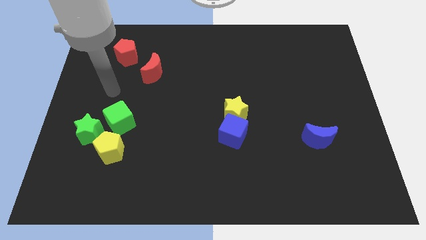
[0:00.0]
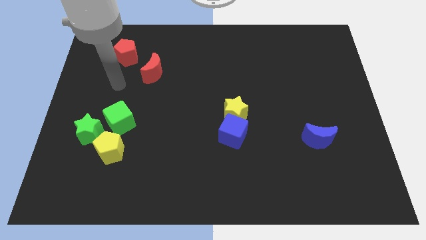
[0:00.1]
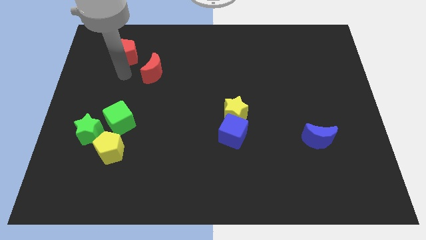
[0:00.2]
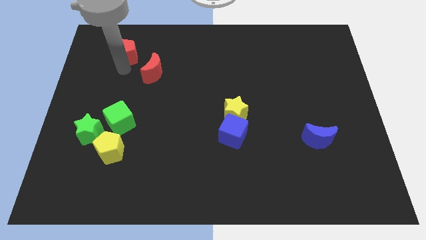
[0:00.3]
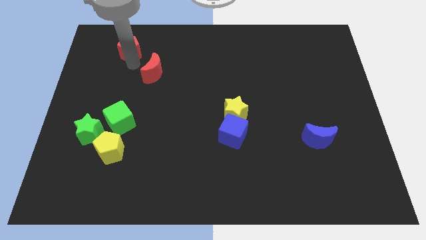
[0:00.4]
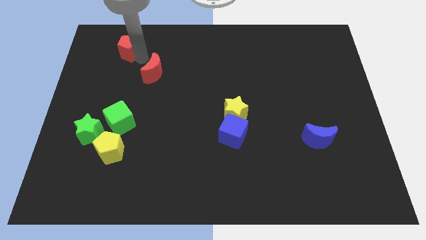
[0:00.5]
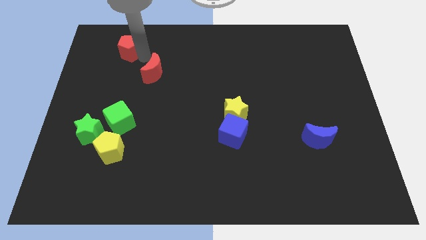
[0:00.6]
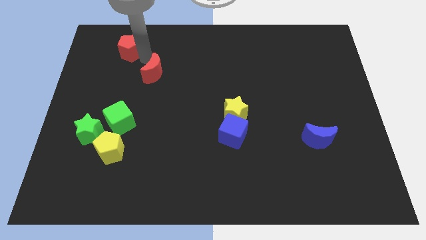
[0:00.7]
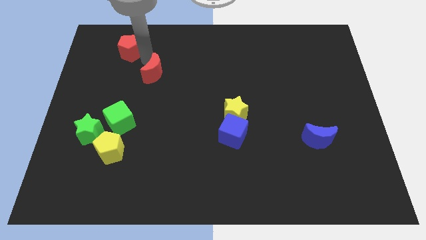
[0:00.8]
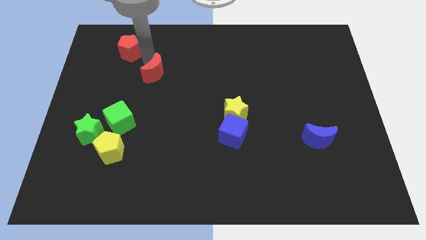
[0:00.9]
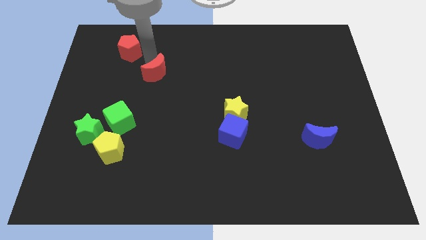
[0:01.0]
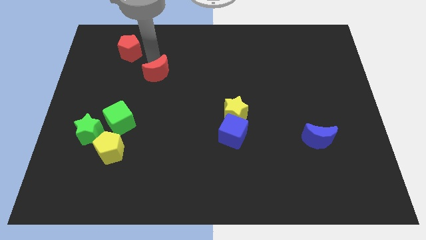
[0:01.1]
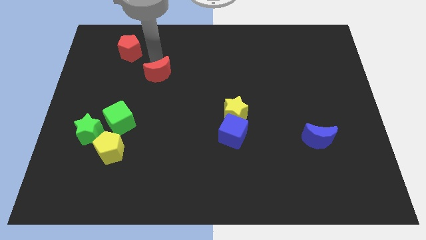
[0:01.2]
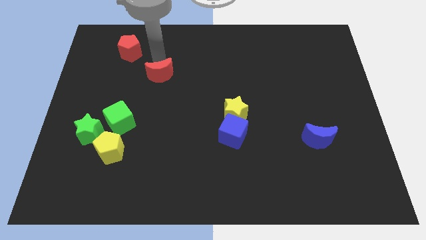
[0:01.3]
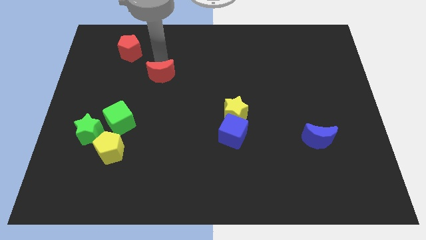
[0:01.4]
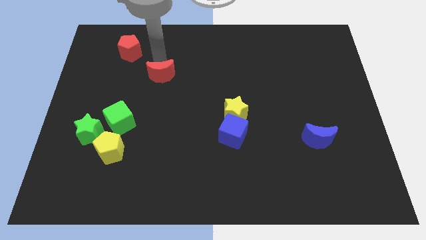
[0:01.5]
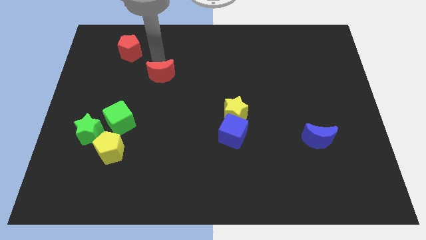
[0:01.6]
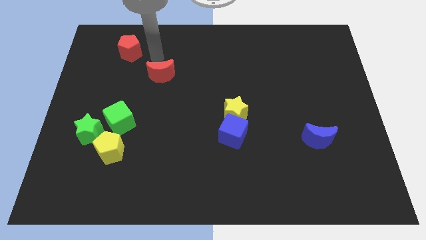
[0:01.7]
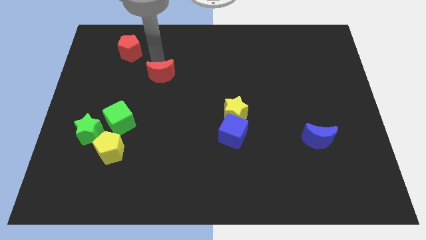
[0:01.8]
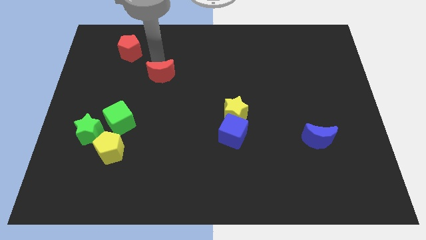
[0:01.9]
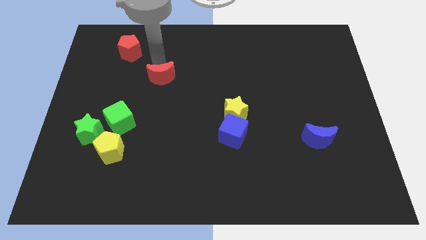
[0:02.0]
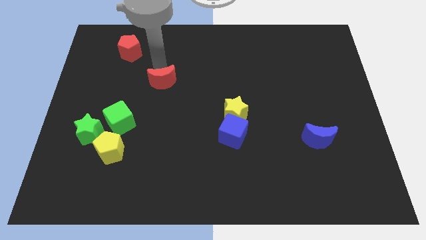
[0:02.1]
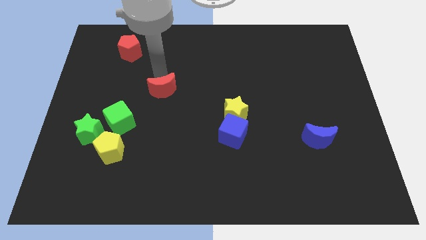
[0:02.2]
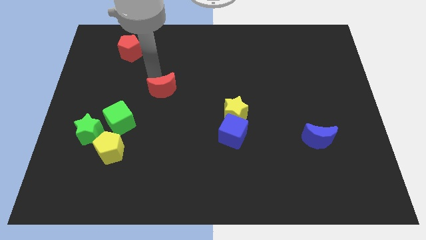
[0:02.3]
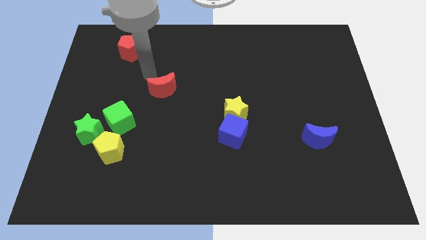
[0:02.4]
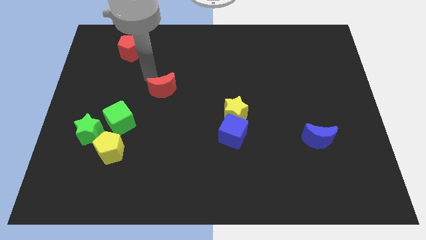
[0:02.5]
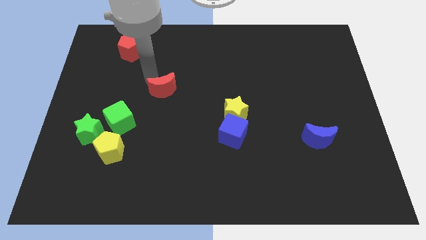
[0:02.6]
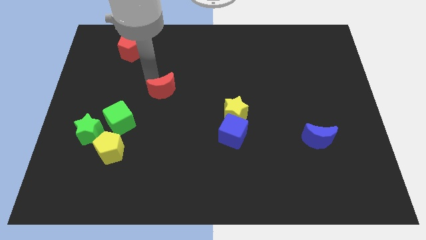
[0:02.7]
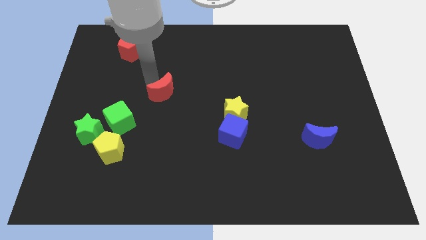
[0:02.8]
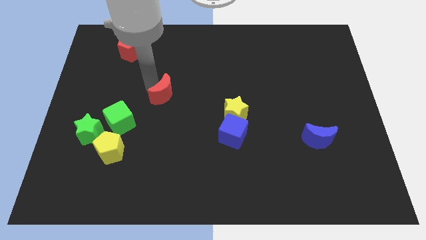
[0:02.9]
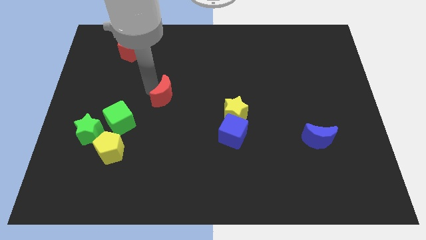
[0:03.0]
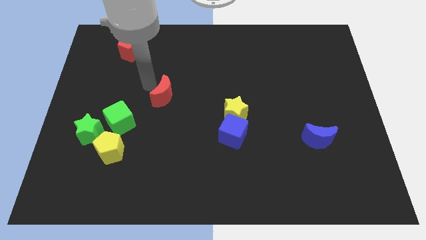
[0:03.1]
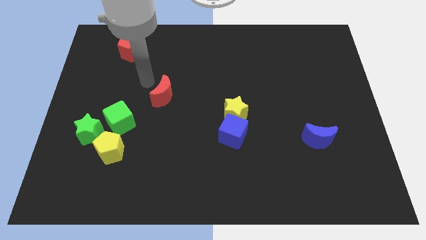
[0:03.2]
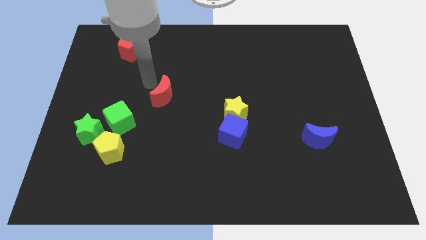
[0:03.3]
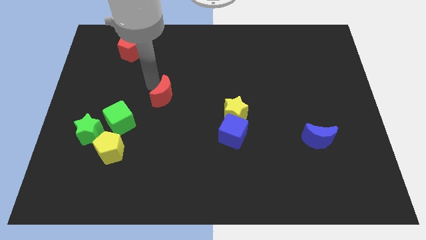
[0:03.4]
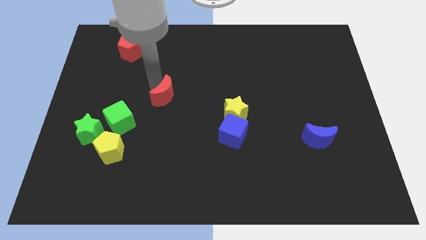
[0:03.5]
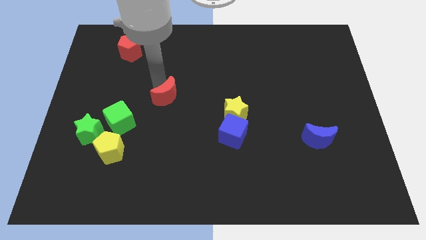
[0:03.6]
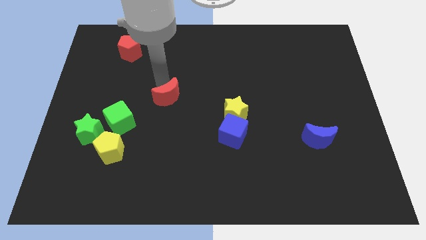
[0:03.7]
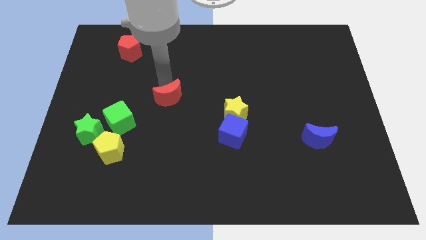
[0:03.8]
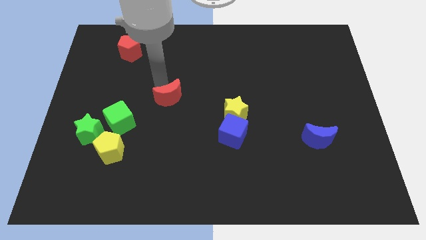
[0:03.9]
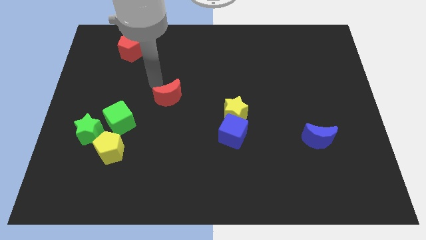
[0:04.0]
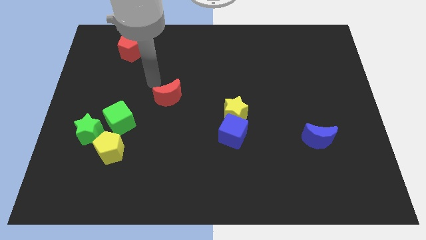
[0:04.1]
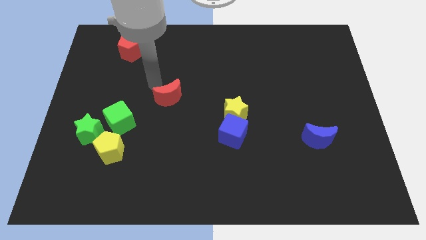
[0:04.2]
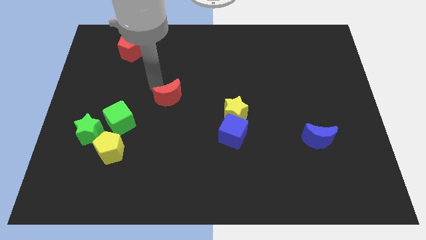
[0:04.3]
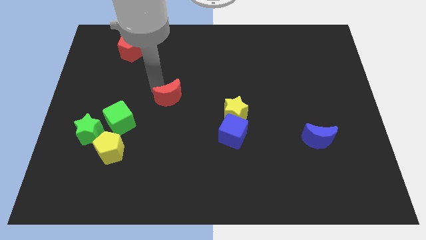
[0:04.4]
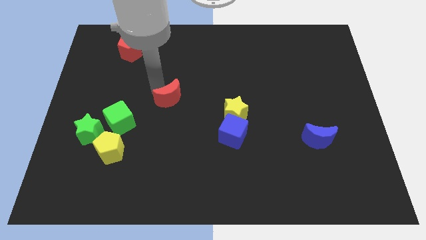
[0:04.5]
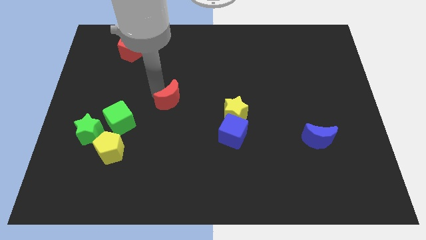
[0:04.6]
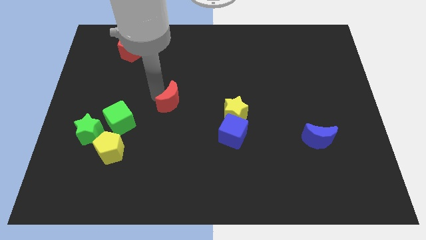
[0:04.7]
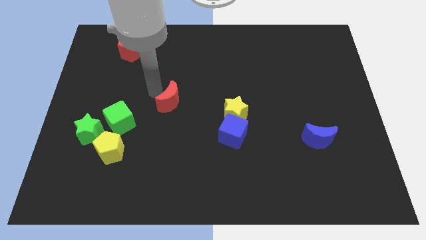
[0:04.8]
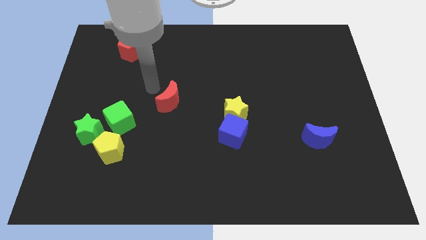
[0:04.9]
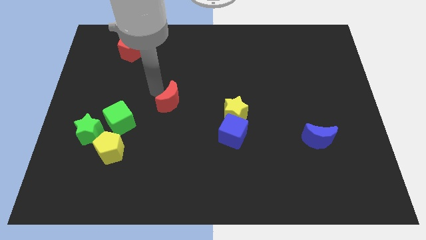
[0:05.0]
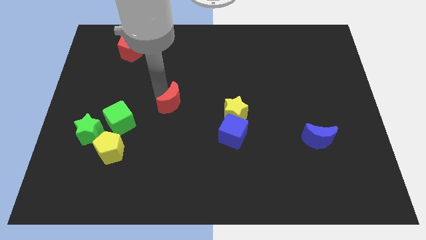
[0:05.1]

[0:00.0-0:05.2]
push the red moon left of the yellow star
